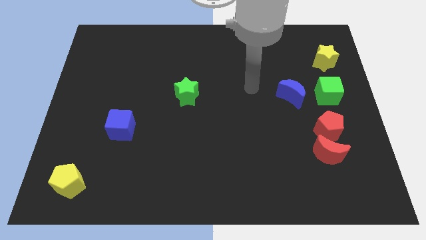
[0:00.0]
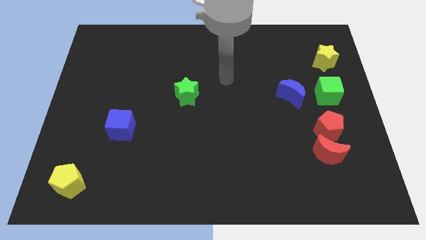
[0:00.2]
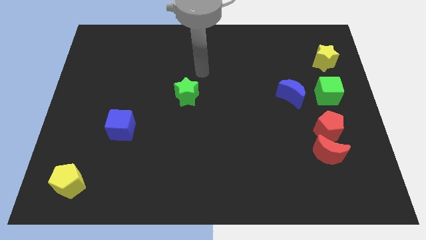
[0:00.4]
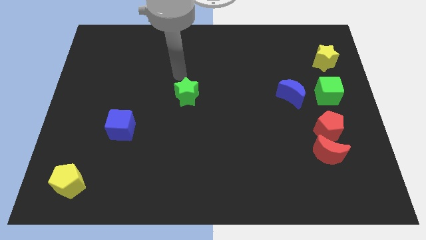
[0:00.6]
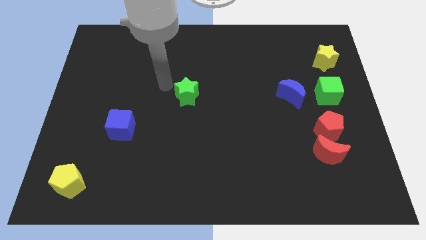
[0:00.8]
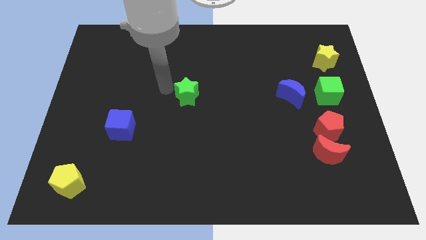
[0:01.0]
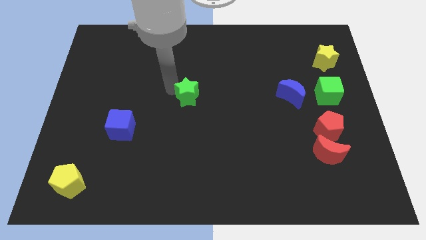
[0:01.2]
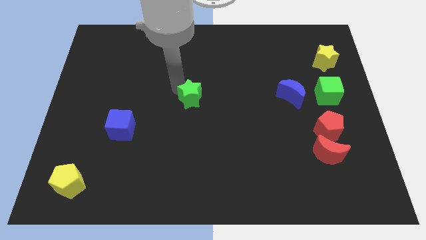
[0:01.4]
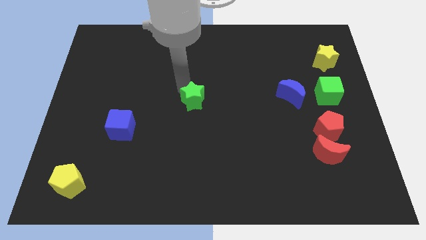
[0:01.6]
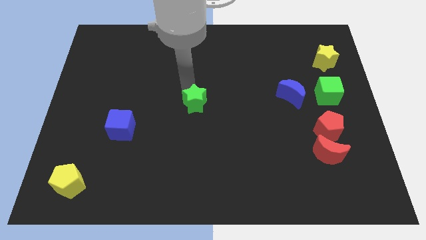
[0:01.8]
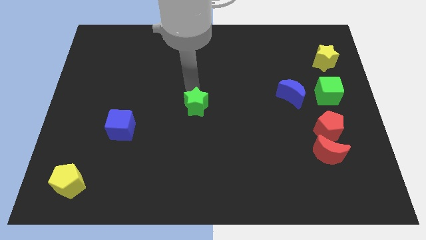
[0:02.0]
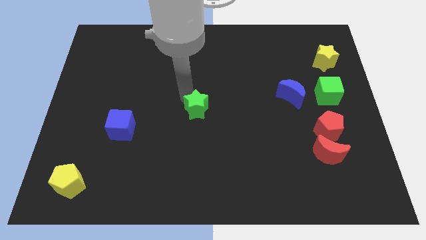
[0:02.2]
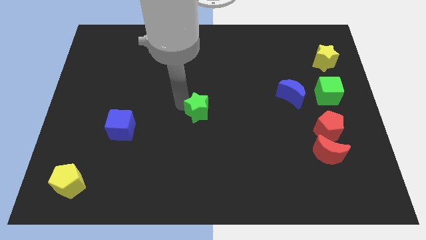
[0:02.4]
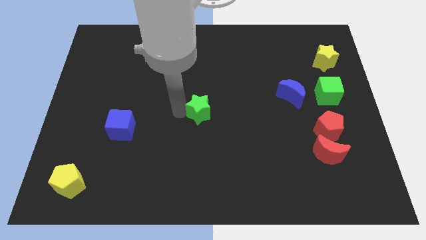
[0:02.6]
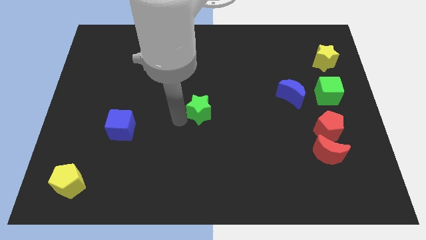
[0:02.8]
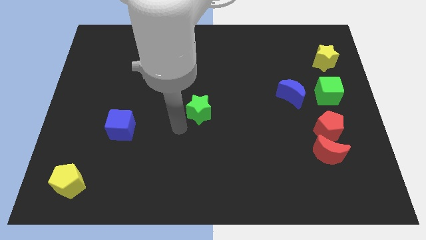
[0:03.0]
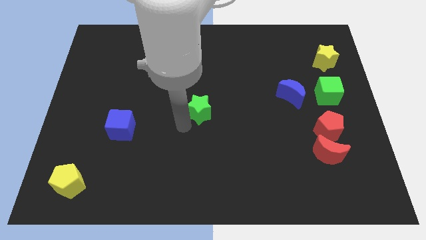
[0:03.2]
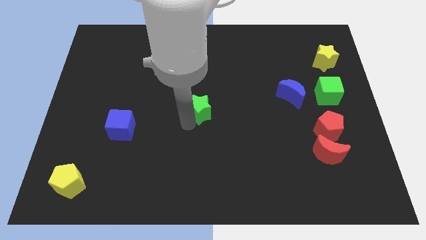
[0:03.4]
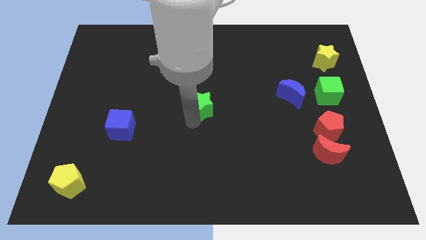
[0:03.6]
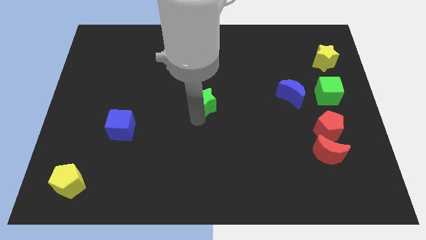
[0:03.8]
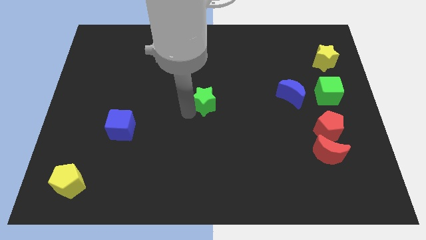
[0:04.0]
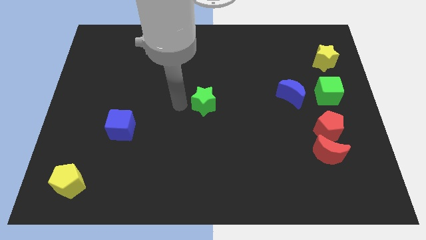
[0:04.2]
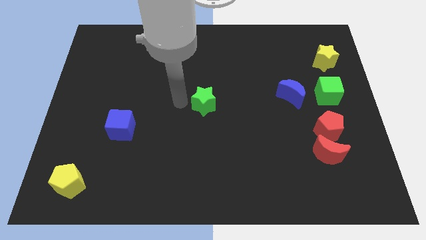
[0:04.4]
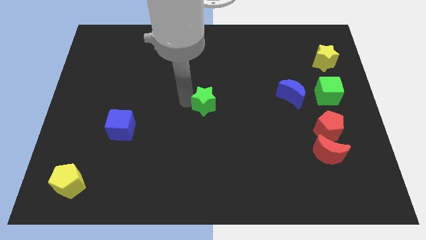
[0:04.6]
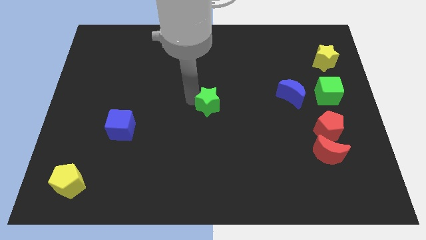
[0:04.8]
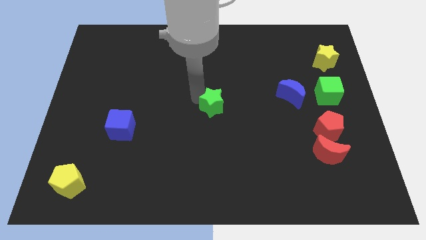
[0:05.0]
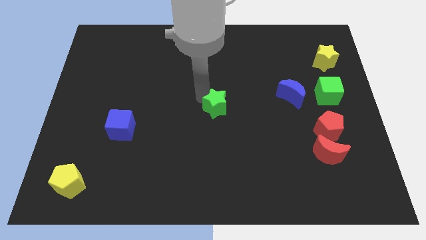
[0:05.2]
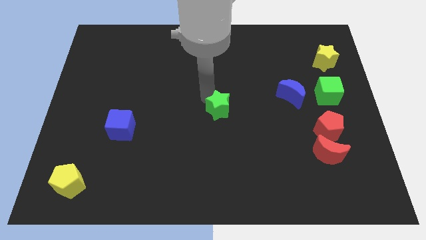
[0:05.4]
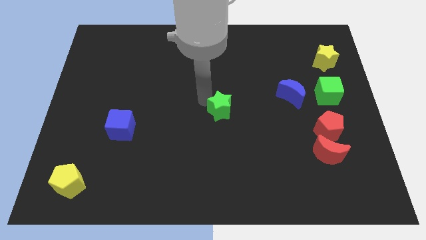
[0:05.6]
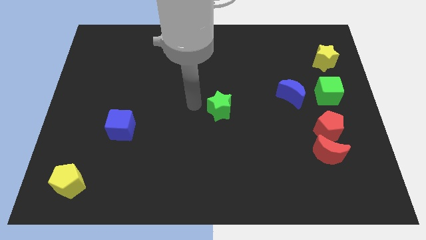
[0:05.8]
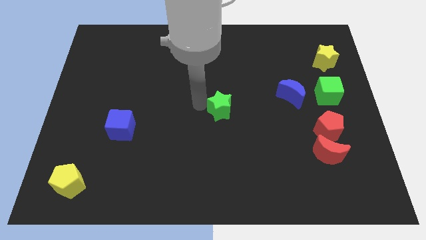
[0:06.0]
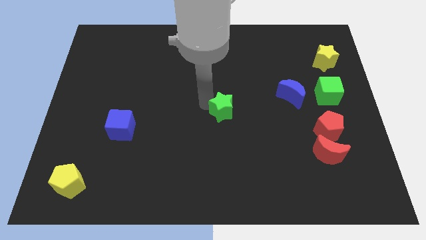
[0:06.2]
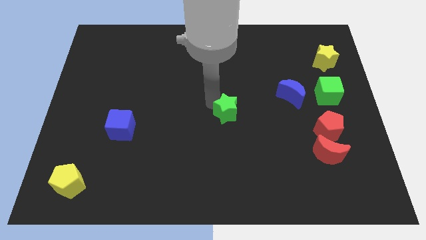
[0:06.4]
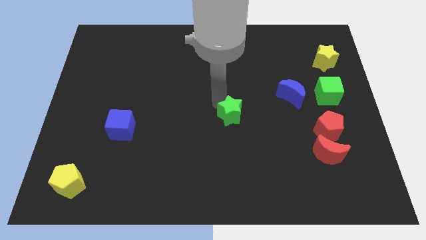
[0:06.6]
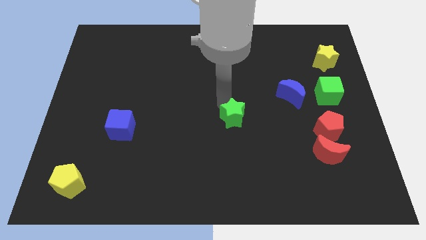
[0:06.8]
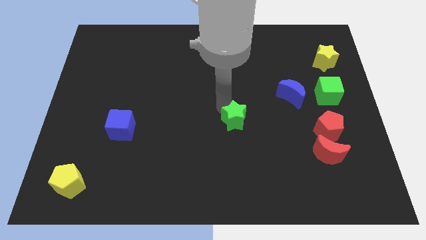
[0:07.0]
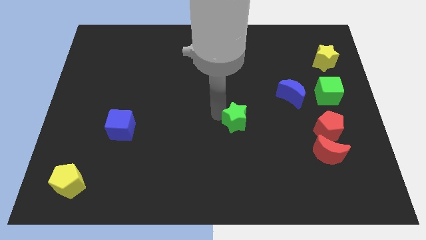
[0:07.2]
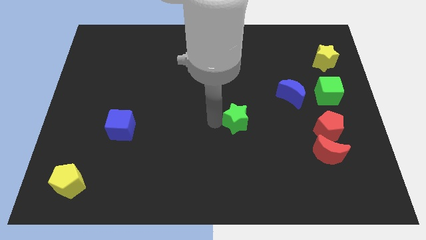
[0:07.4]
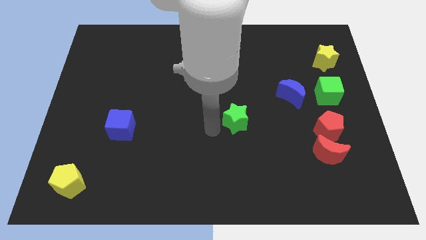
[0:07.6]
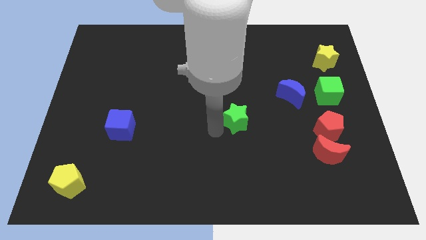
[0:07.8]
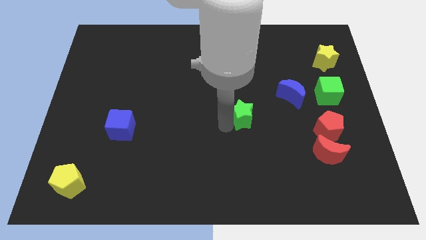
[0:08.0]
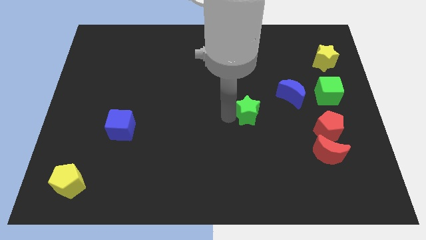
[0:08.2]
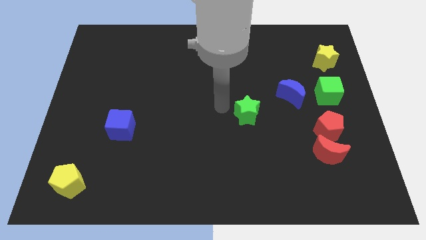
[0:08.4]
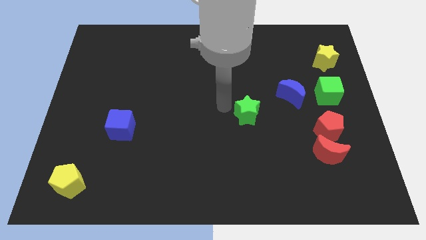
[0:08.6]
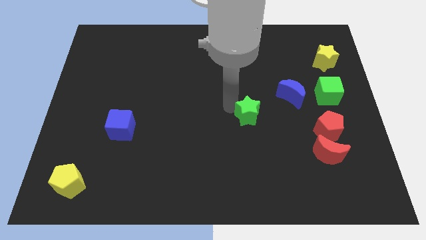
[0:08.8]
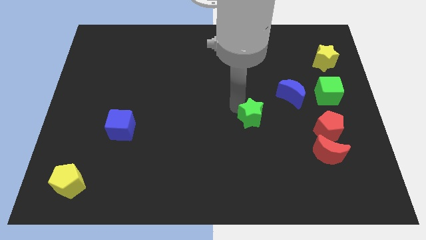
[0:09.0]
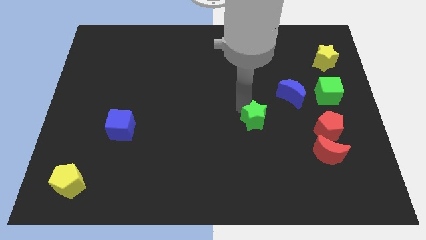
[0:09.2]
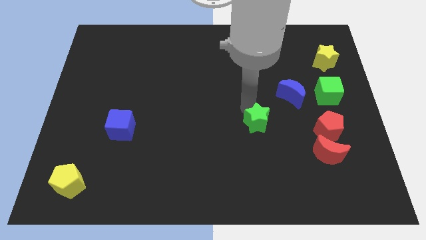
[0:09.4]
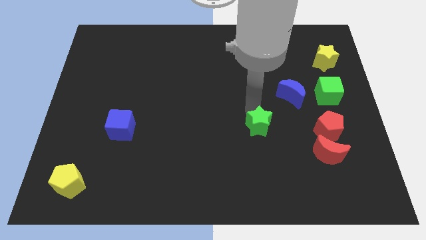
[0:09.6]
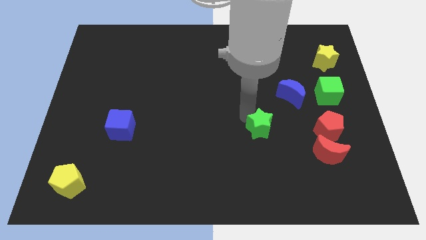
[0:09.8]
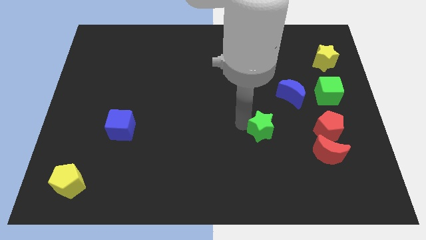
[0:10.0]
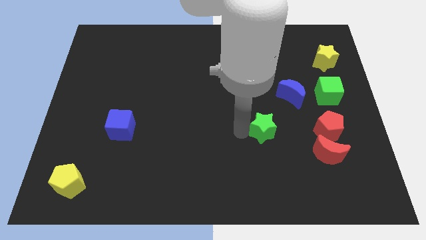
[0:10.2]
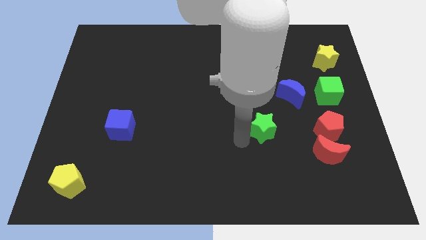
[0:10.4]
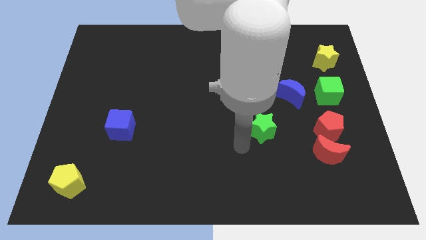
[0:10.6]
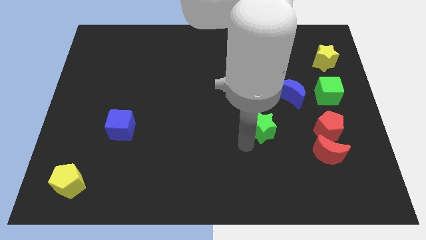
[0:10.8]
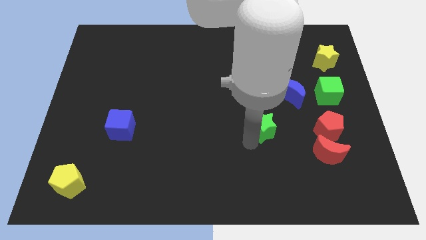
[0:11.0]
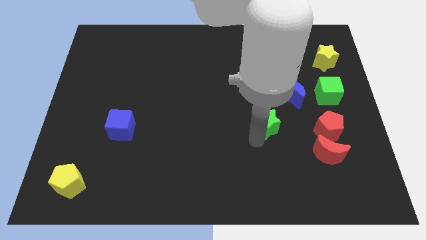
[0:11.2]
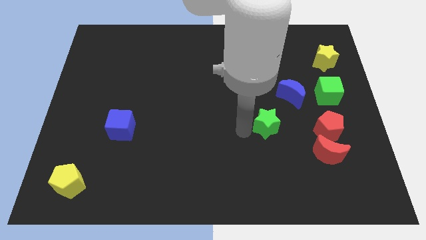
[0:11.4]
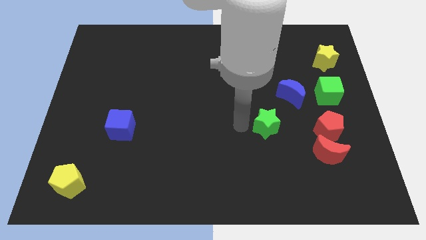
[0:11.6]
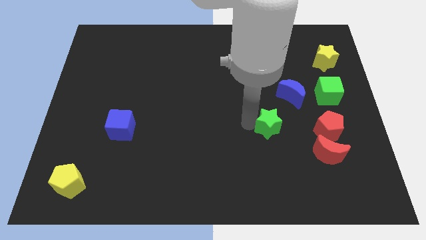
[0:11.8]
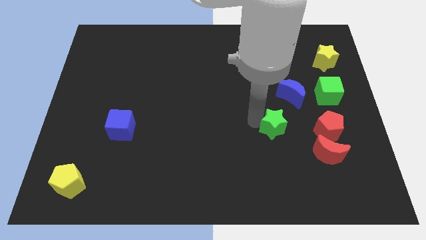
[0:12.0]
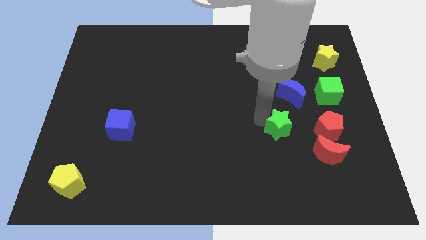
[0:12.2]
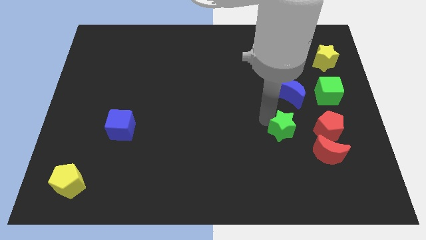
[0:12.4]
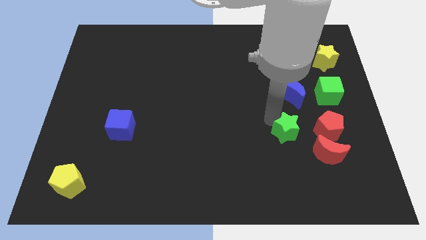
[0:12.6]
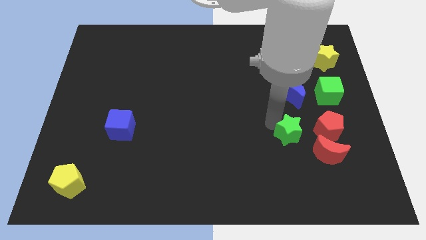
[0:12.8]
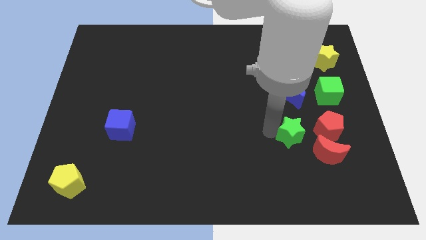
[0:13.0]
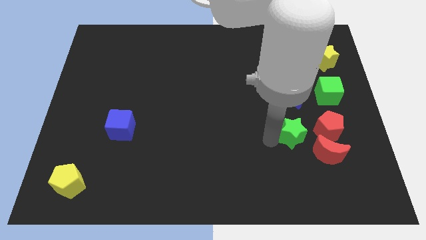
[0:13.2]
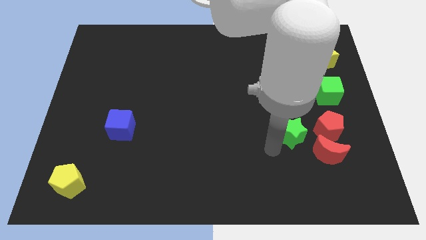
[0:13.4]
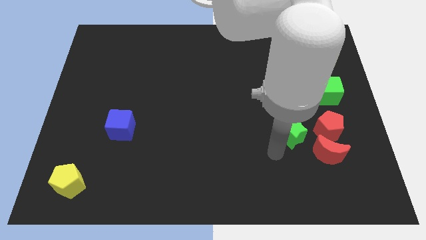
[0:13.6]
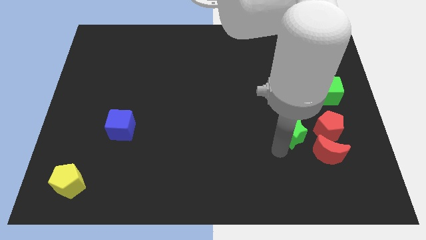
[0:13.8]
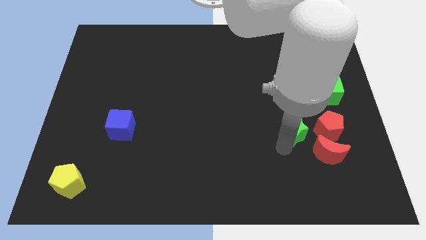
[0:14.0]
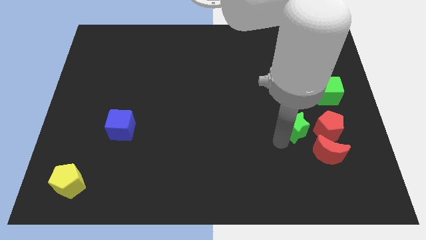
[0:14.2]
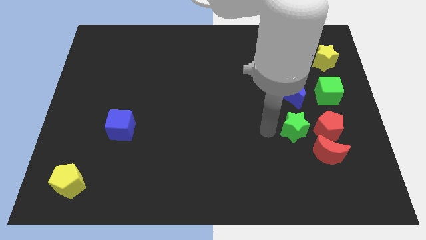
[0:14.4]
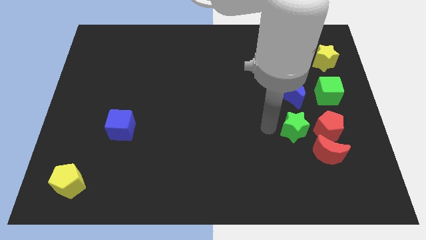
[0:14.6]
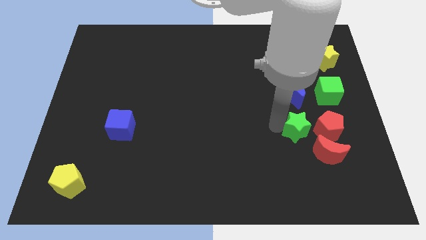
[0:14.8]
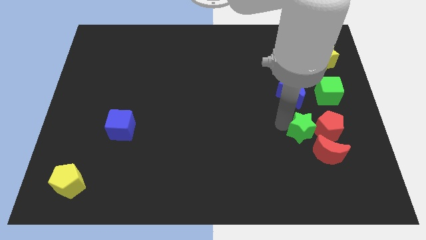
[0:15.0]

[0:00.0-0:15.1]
move the green star towards the red pentagon
